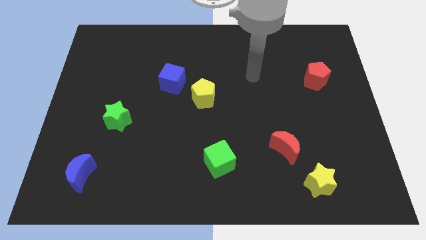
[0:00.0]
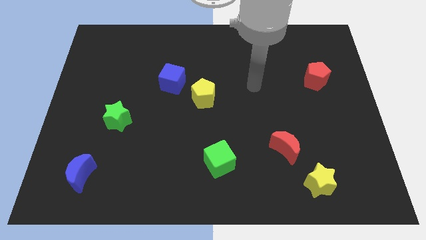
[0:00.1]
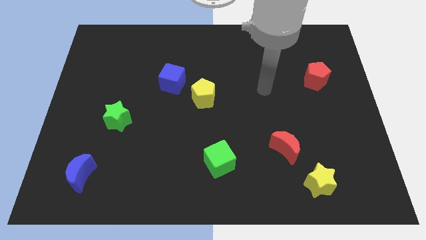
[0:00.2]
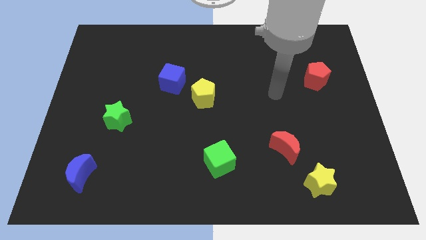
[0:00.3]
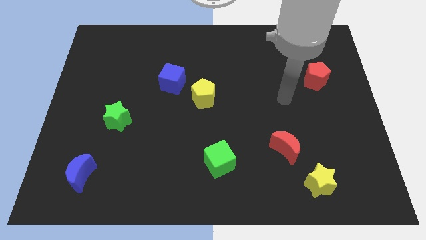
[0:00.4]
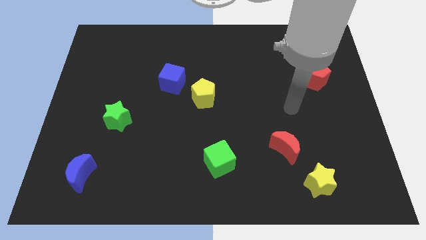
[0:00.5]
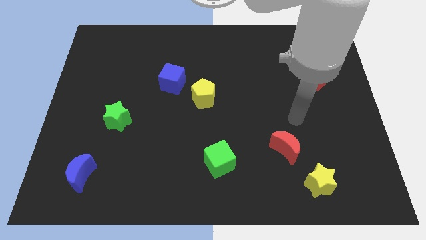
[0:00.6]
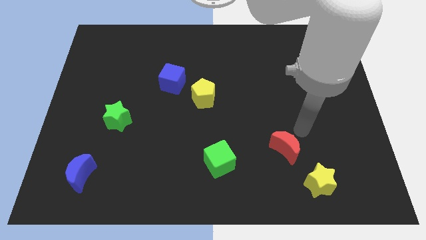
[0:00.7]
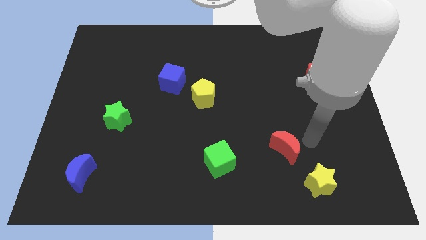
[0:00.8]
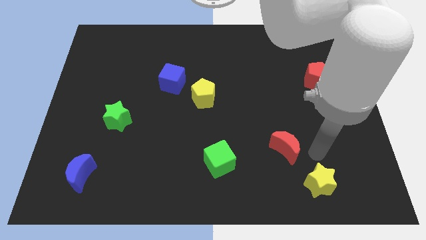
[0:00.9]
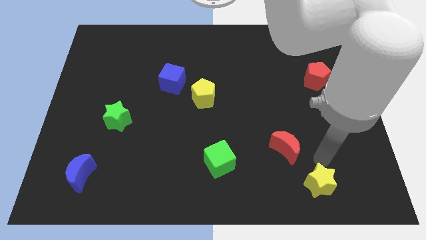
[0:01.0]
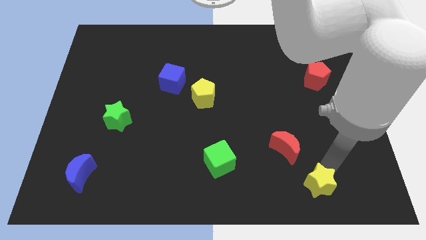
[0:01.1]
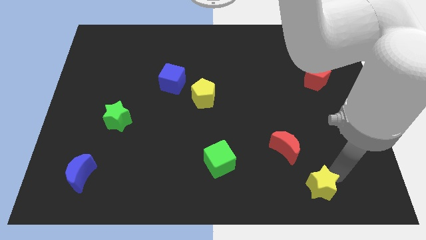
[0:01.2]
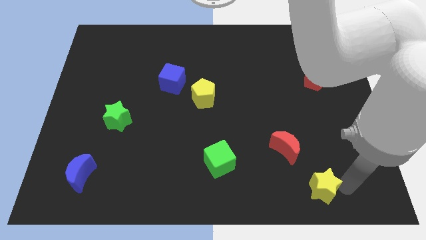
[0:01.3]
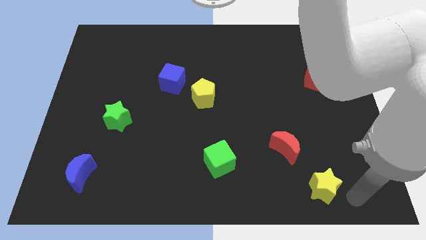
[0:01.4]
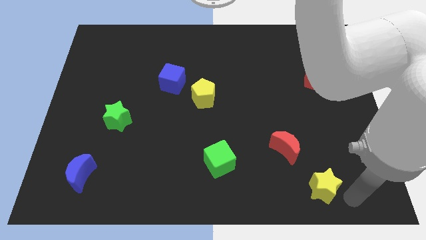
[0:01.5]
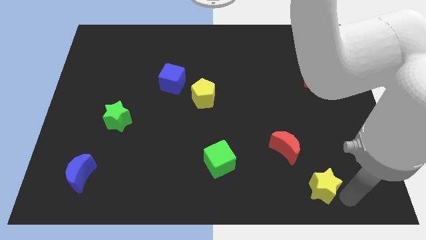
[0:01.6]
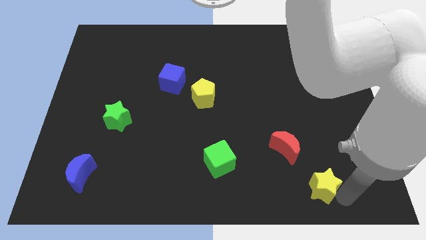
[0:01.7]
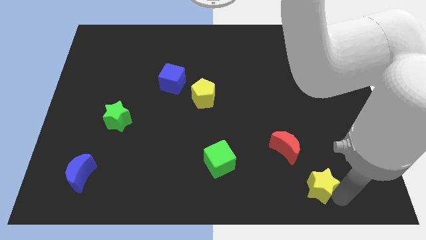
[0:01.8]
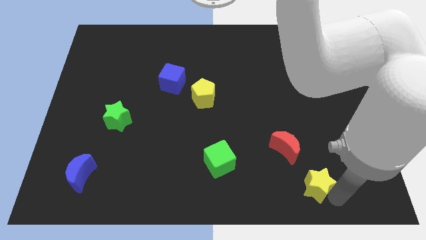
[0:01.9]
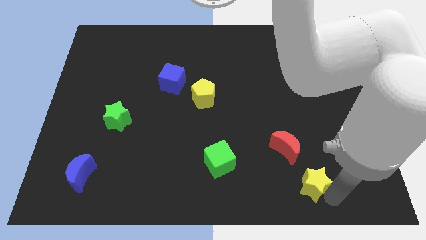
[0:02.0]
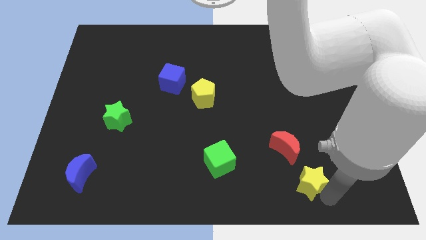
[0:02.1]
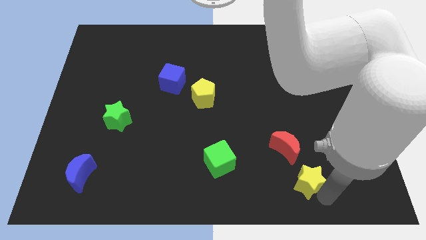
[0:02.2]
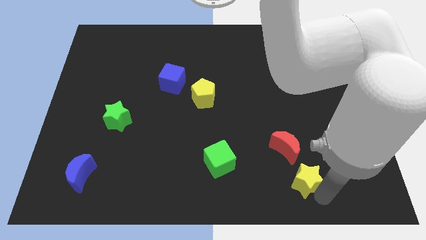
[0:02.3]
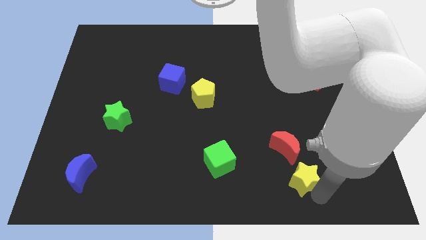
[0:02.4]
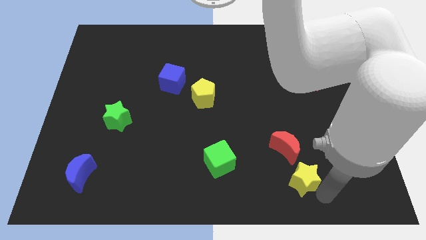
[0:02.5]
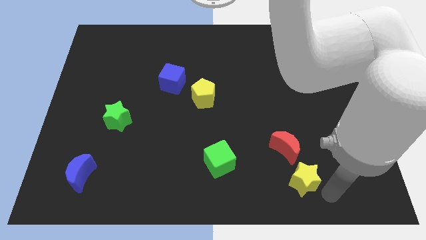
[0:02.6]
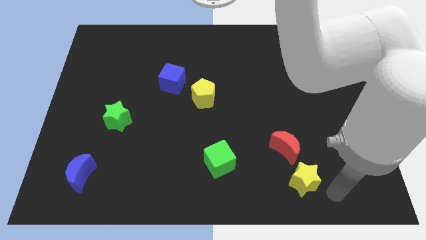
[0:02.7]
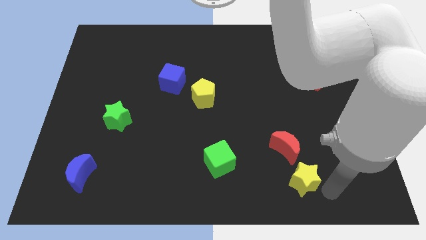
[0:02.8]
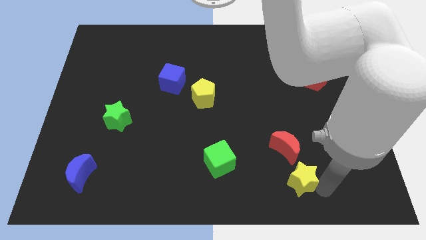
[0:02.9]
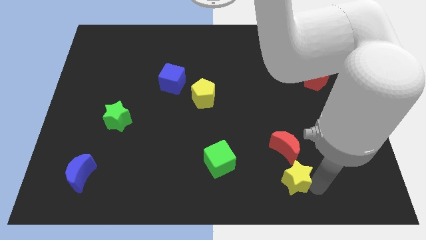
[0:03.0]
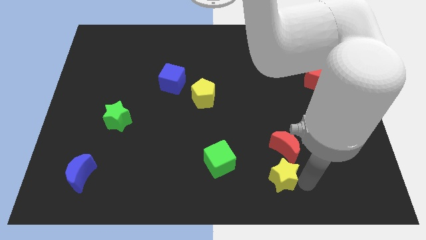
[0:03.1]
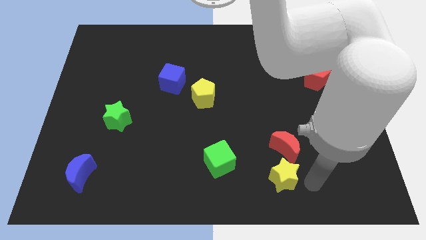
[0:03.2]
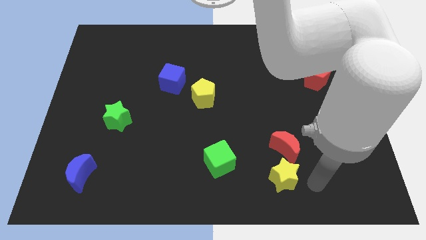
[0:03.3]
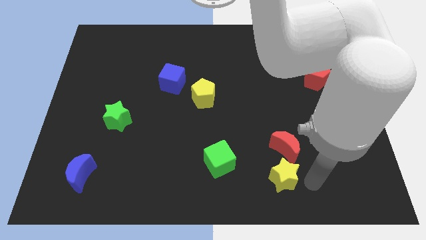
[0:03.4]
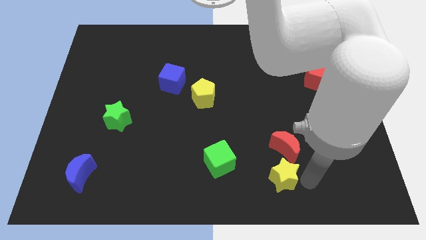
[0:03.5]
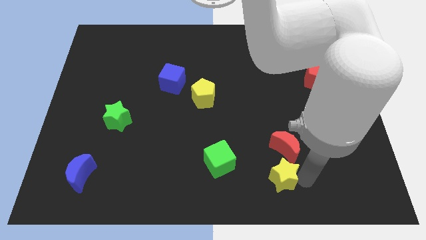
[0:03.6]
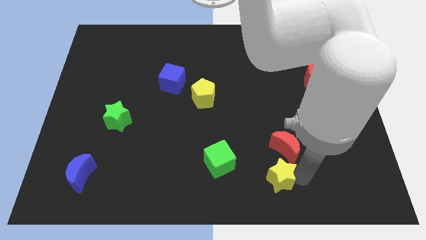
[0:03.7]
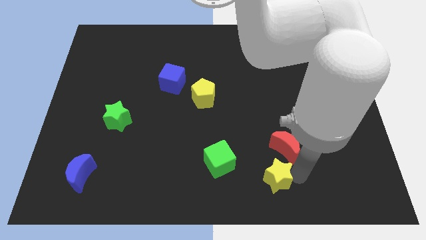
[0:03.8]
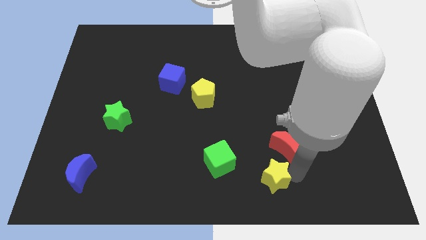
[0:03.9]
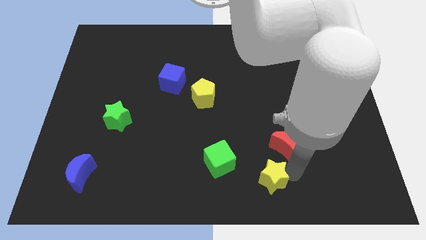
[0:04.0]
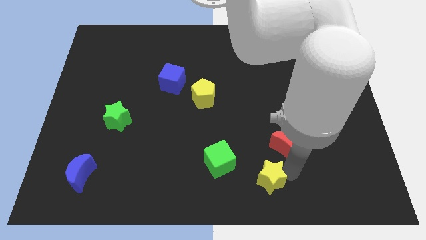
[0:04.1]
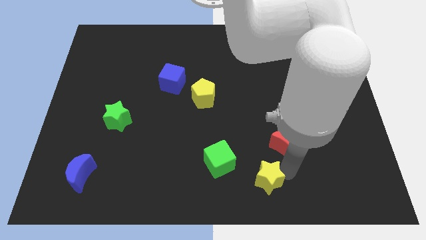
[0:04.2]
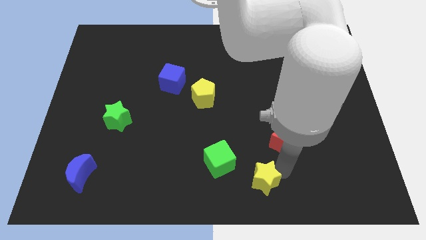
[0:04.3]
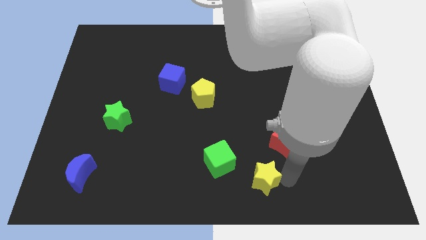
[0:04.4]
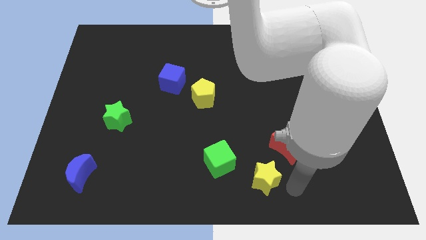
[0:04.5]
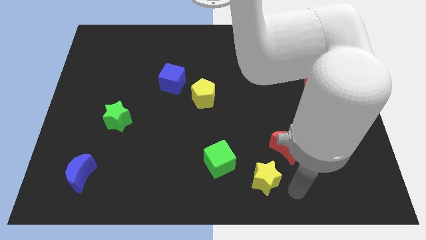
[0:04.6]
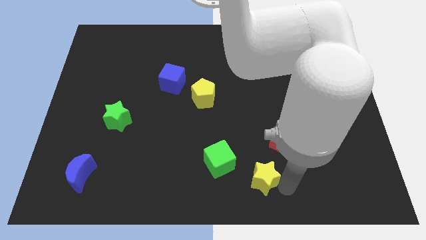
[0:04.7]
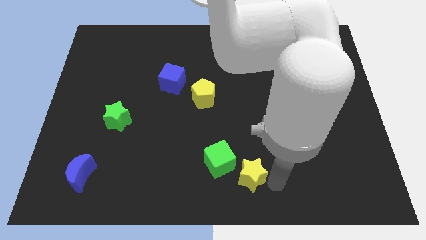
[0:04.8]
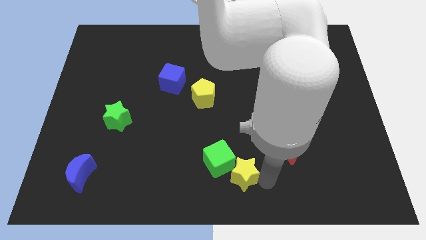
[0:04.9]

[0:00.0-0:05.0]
move the yellow star to the green cube
